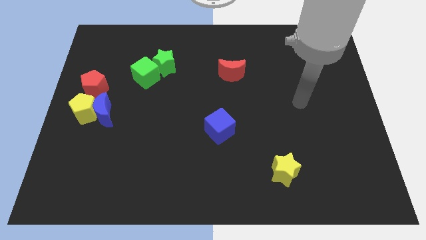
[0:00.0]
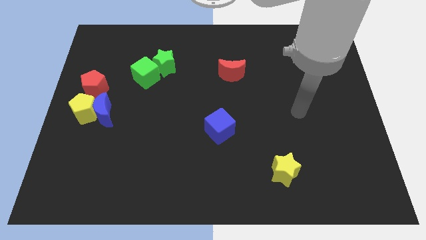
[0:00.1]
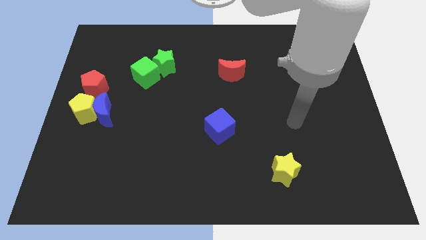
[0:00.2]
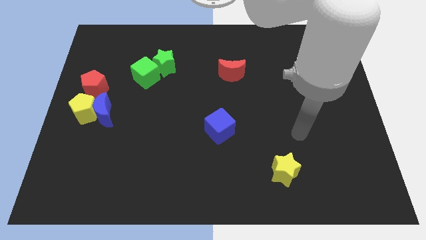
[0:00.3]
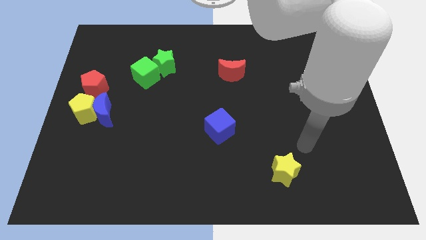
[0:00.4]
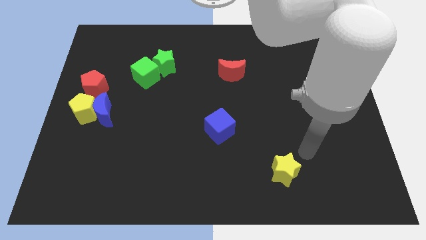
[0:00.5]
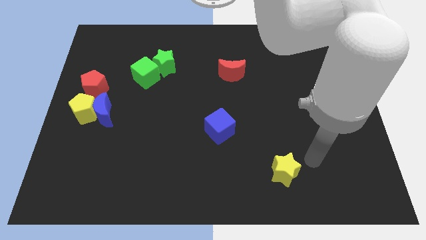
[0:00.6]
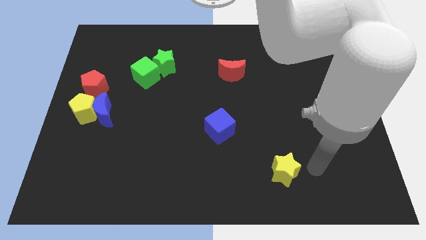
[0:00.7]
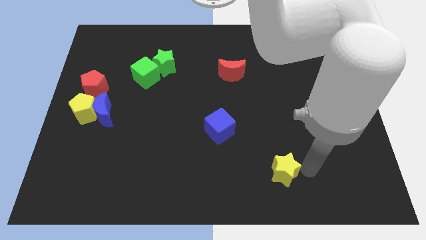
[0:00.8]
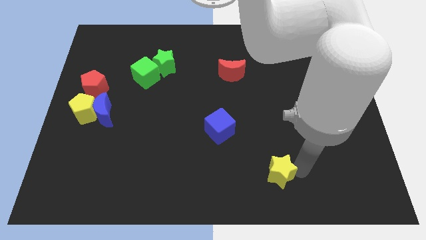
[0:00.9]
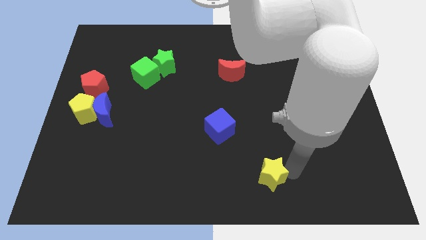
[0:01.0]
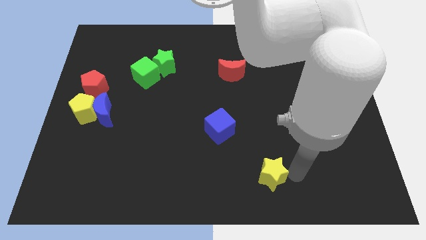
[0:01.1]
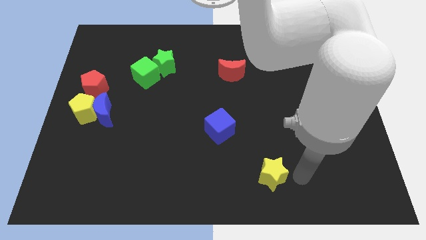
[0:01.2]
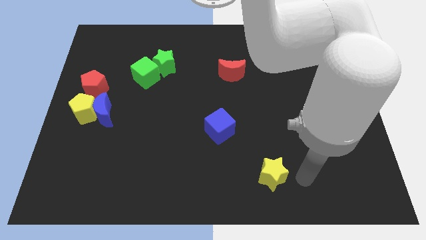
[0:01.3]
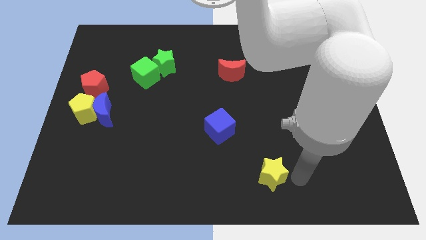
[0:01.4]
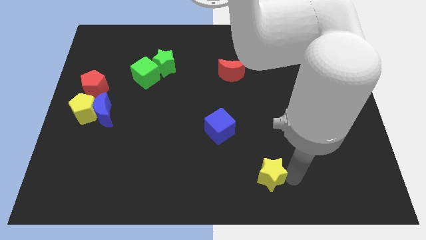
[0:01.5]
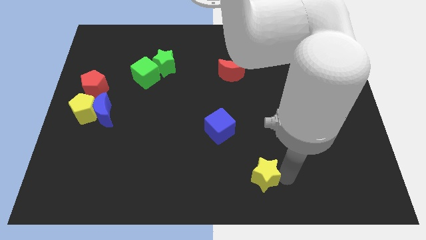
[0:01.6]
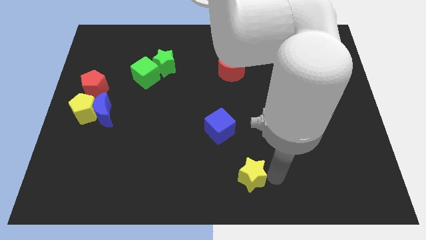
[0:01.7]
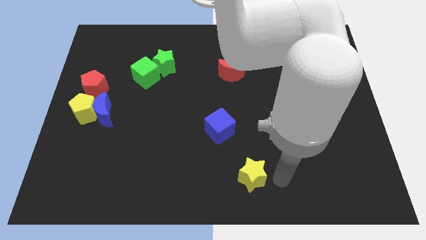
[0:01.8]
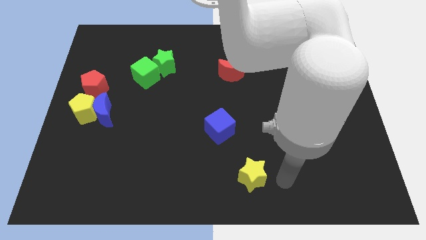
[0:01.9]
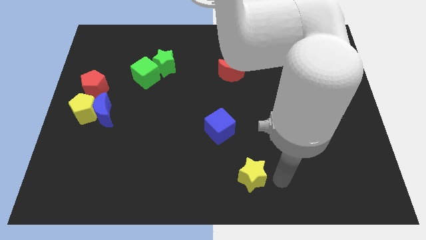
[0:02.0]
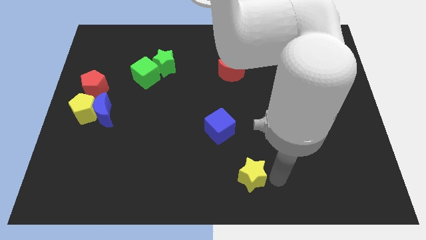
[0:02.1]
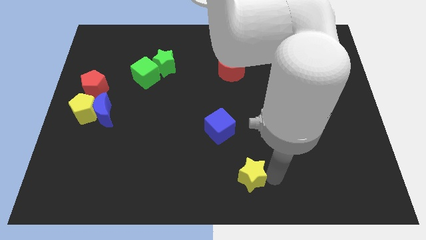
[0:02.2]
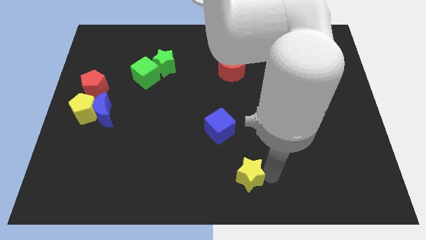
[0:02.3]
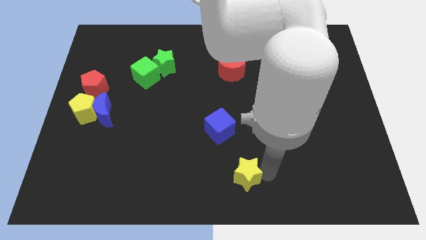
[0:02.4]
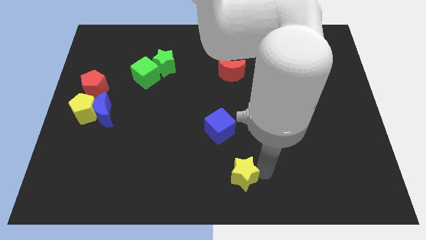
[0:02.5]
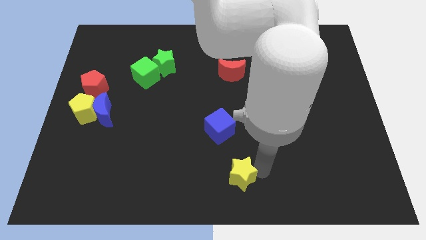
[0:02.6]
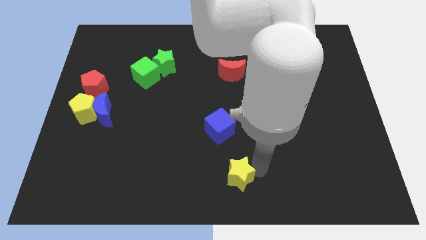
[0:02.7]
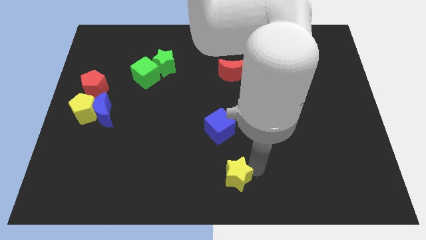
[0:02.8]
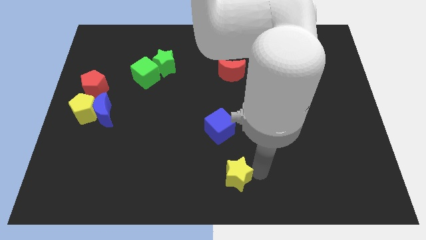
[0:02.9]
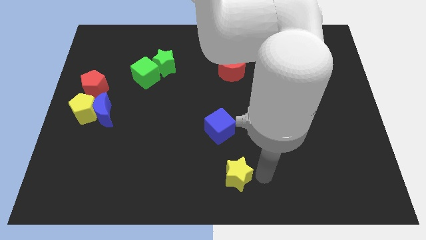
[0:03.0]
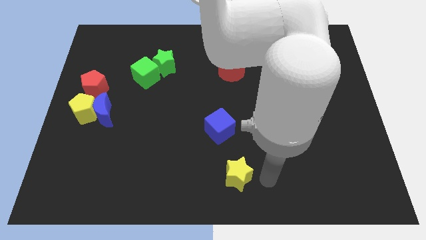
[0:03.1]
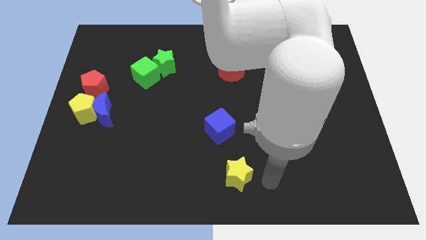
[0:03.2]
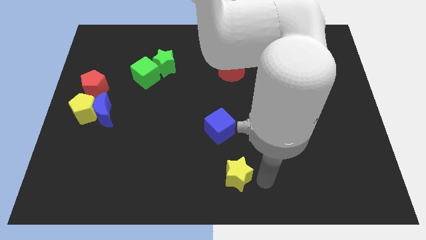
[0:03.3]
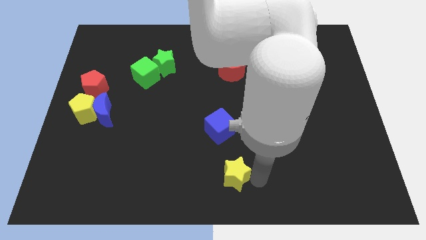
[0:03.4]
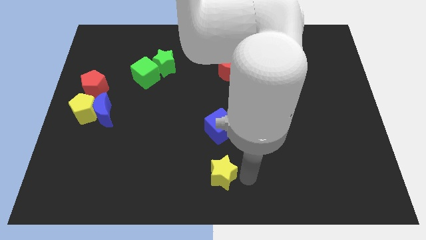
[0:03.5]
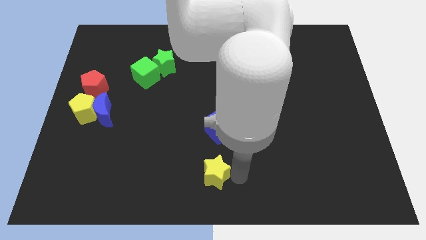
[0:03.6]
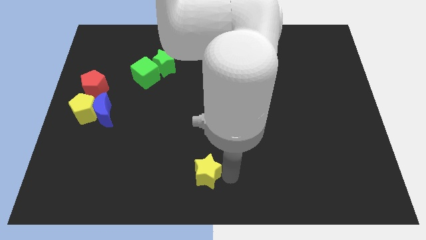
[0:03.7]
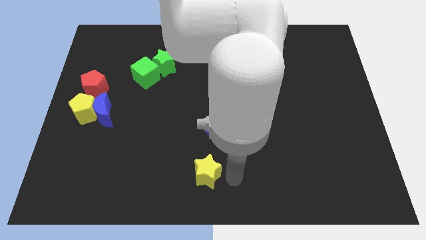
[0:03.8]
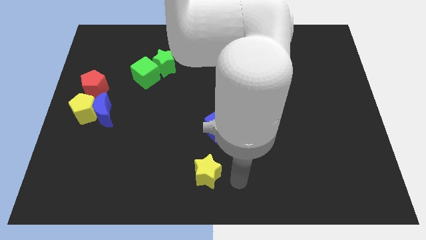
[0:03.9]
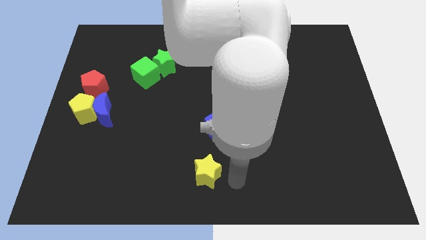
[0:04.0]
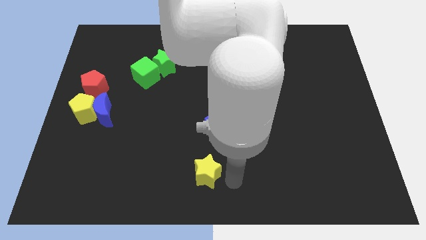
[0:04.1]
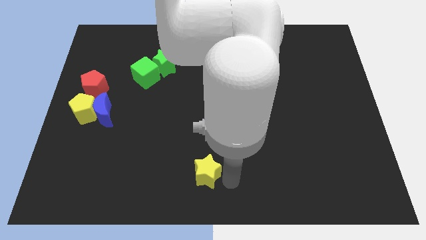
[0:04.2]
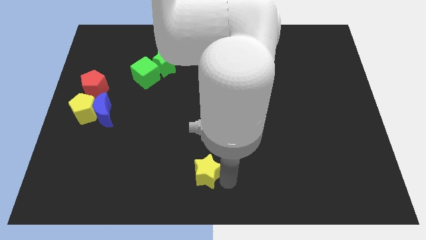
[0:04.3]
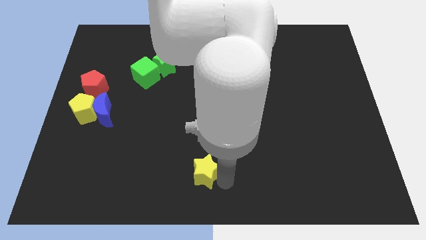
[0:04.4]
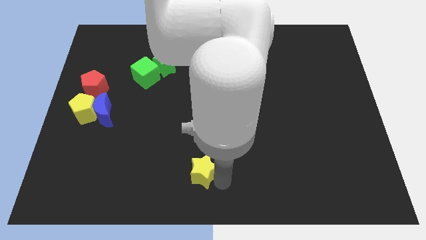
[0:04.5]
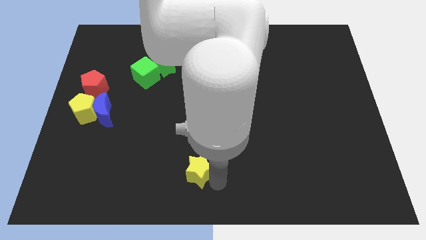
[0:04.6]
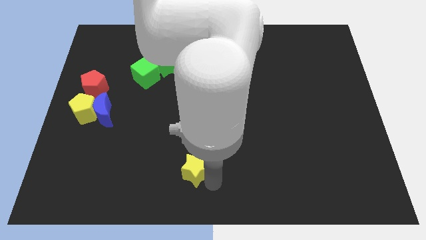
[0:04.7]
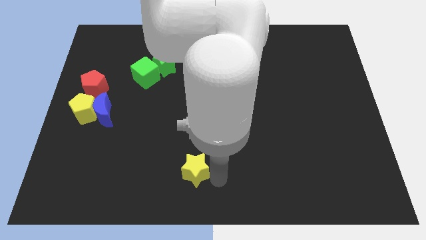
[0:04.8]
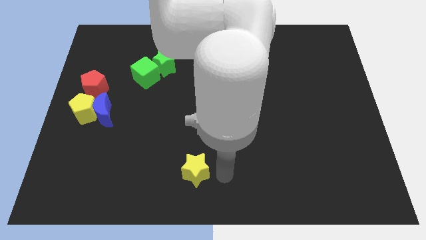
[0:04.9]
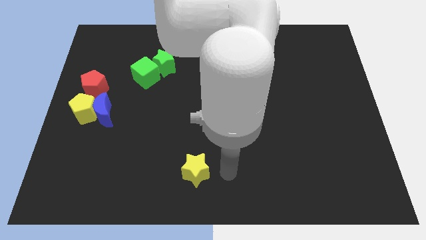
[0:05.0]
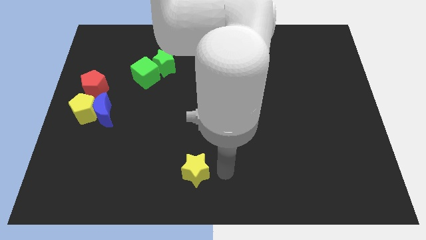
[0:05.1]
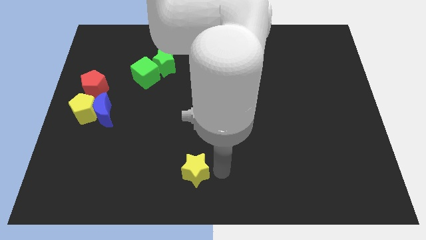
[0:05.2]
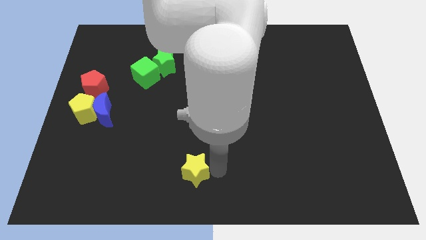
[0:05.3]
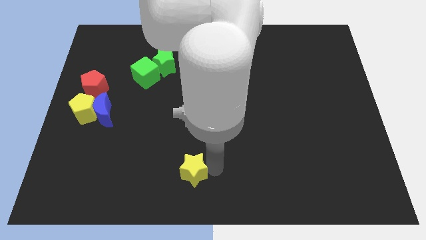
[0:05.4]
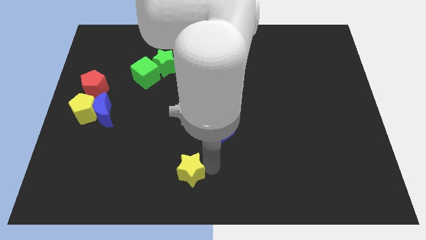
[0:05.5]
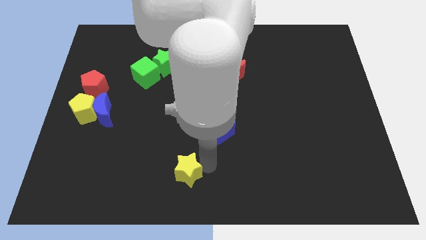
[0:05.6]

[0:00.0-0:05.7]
push the yellow star to the left

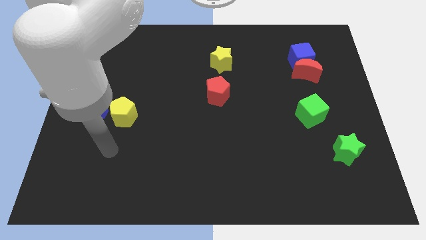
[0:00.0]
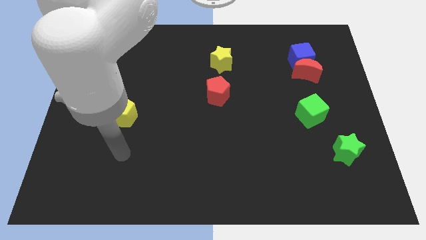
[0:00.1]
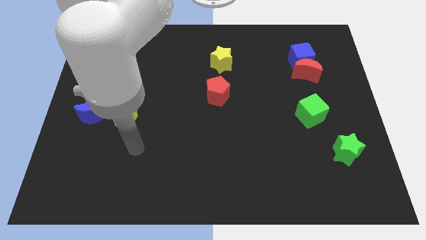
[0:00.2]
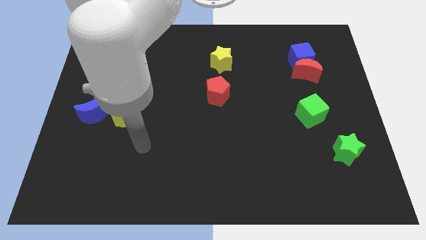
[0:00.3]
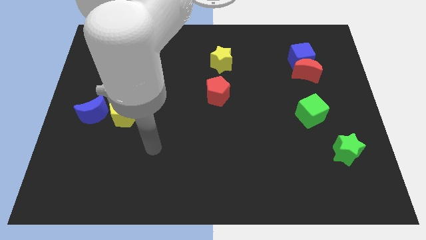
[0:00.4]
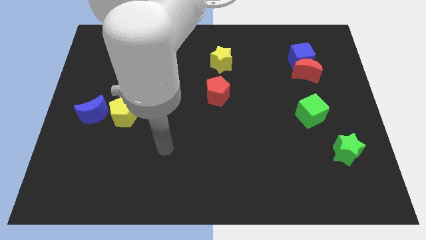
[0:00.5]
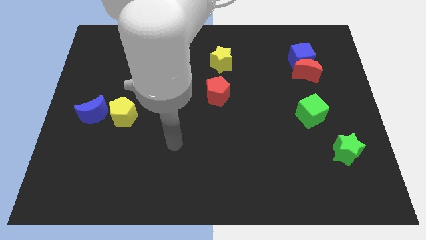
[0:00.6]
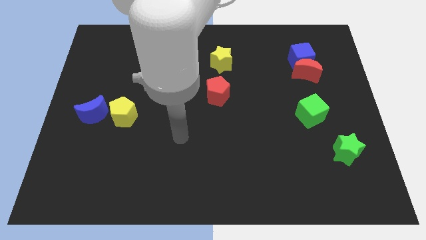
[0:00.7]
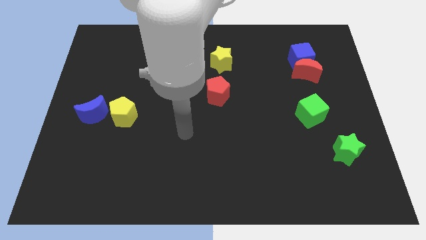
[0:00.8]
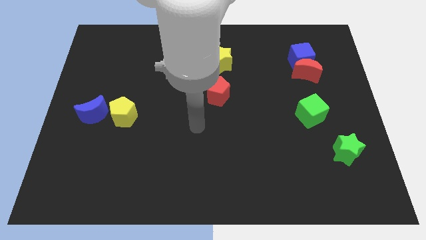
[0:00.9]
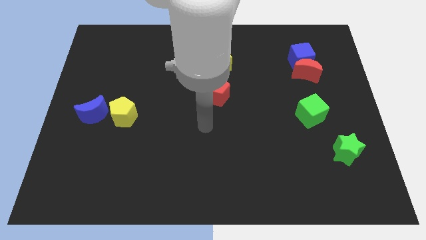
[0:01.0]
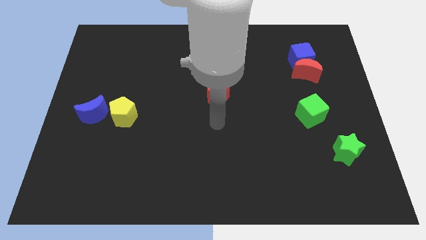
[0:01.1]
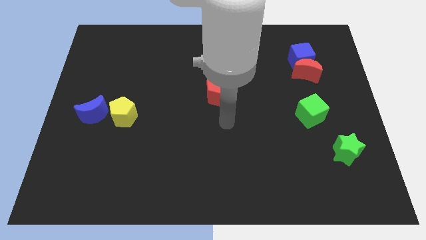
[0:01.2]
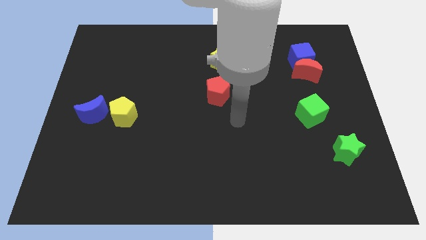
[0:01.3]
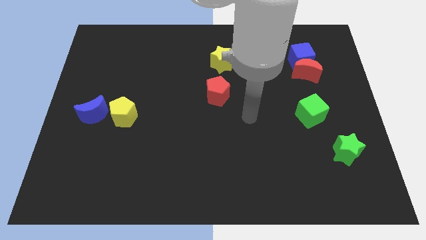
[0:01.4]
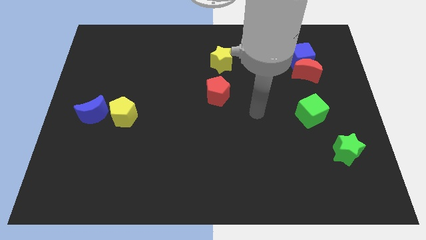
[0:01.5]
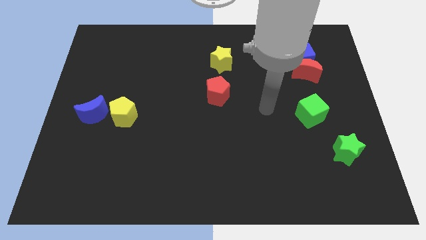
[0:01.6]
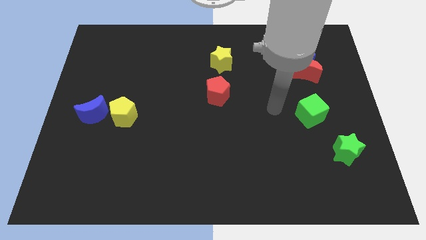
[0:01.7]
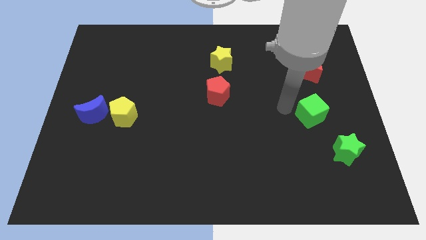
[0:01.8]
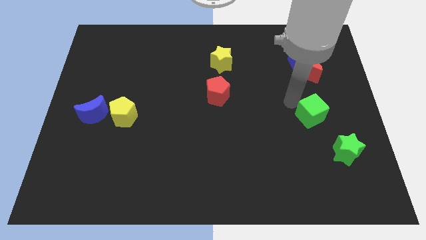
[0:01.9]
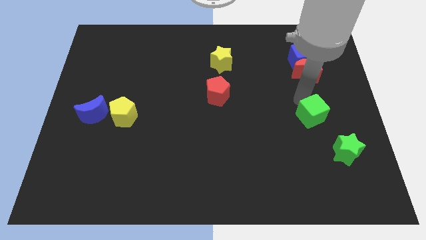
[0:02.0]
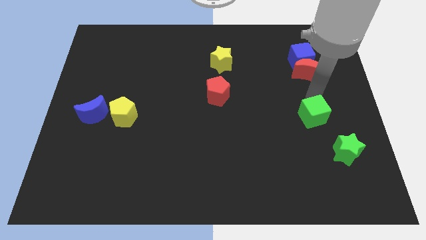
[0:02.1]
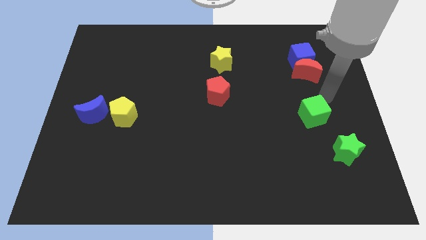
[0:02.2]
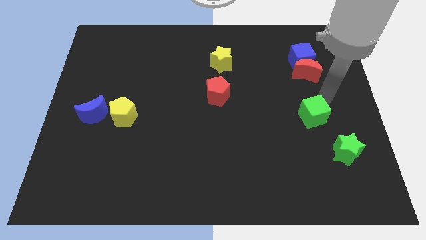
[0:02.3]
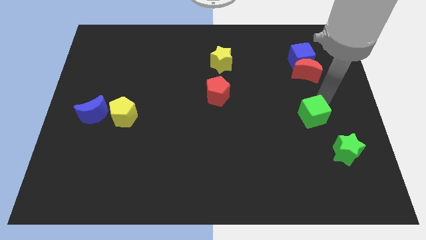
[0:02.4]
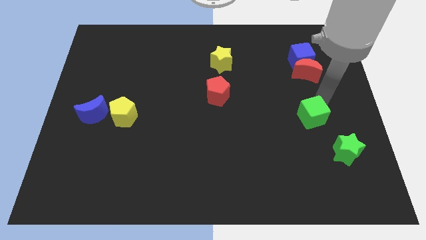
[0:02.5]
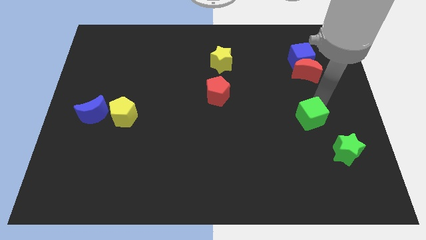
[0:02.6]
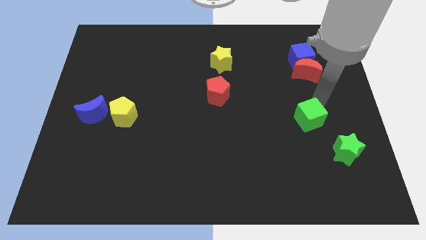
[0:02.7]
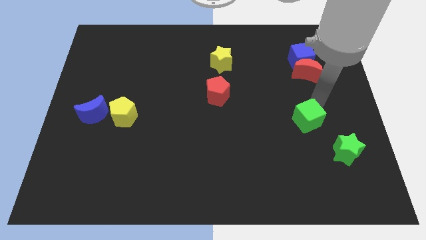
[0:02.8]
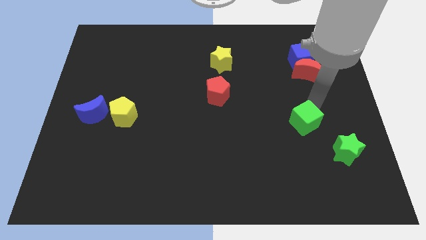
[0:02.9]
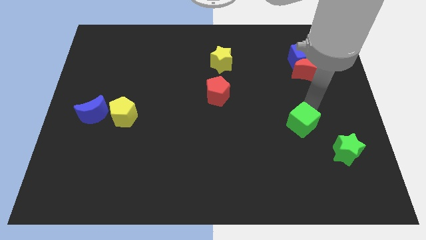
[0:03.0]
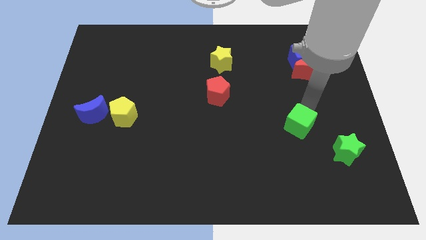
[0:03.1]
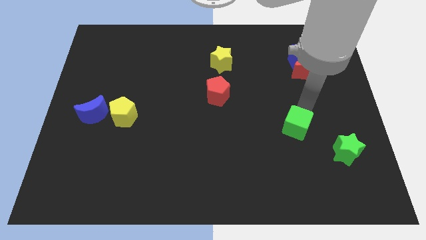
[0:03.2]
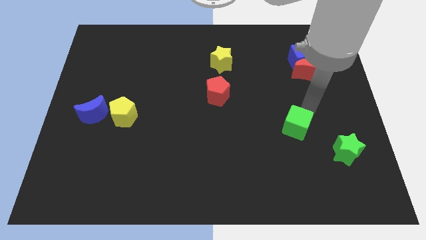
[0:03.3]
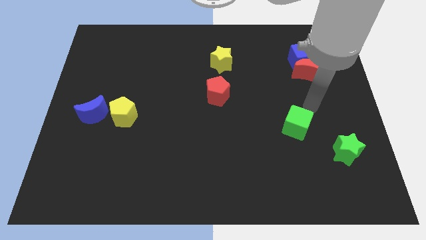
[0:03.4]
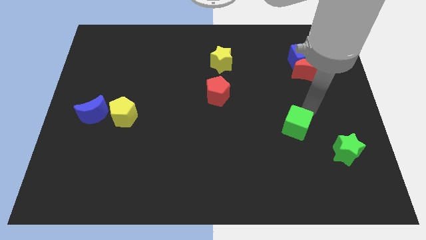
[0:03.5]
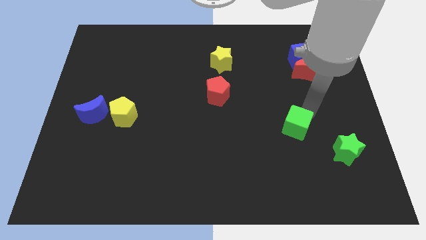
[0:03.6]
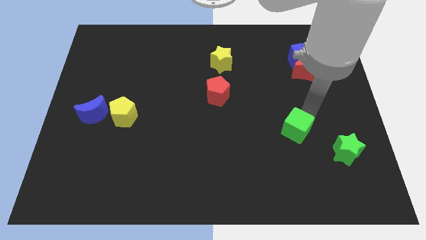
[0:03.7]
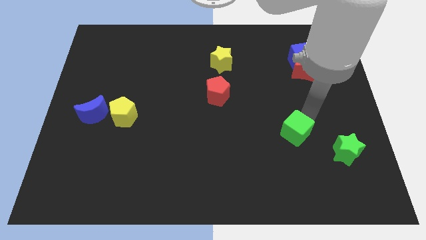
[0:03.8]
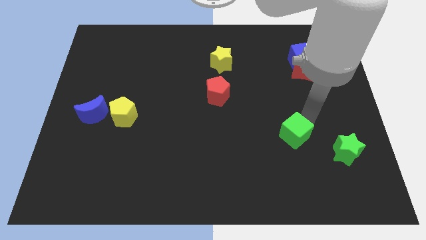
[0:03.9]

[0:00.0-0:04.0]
slightly slide the green cube diagonally downwards and to the left
